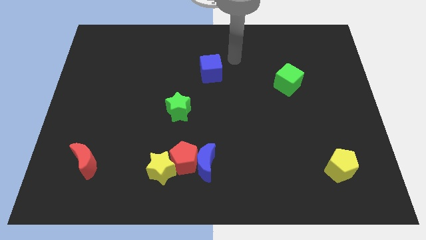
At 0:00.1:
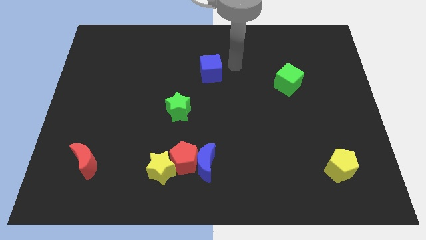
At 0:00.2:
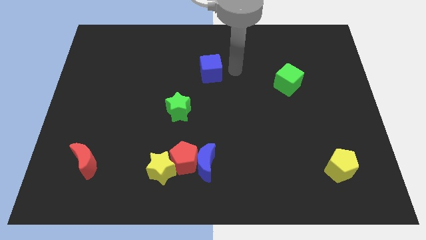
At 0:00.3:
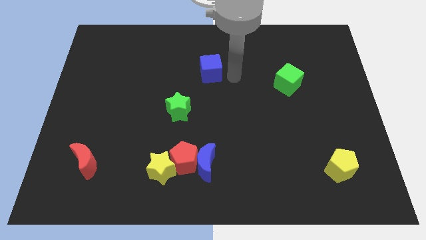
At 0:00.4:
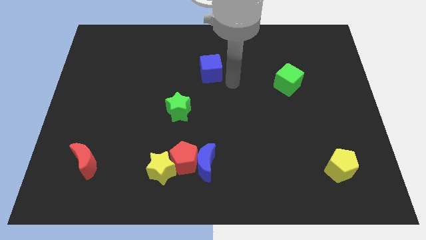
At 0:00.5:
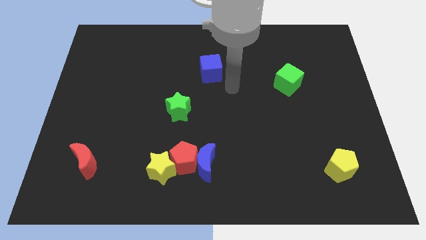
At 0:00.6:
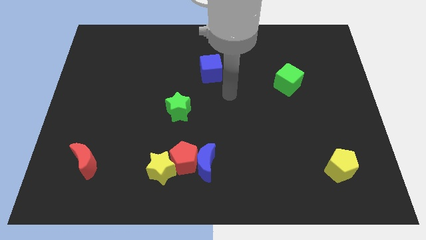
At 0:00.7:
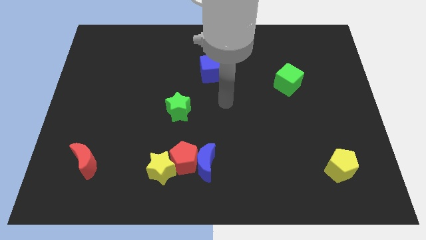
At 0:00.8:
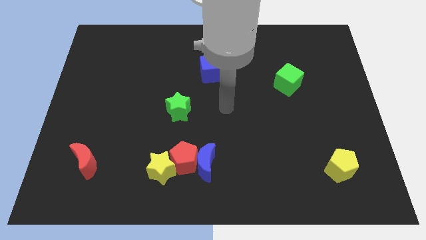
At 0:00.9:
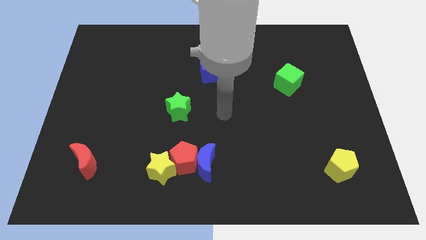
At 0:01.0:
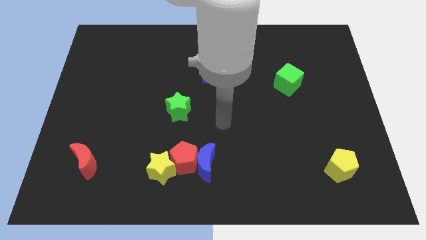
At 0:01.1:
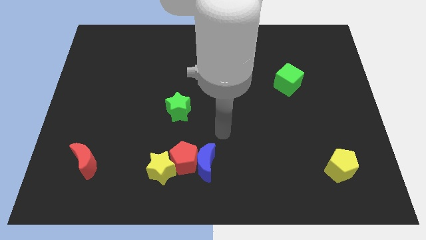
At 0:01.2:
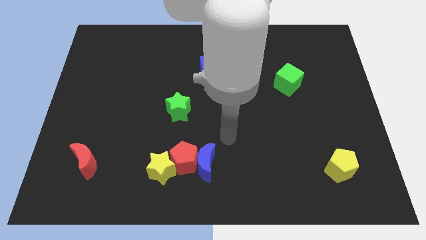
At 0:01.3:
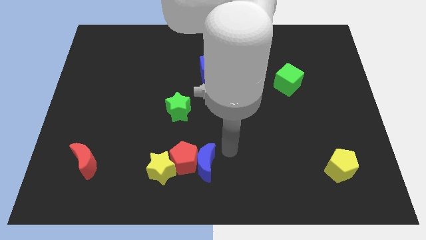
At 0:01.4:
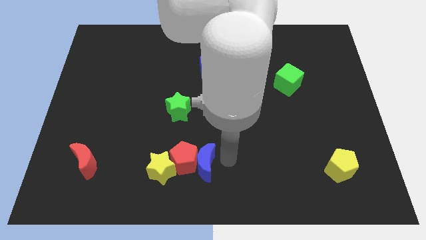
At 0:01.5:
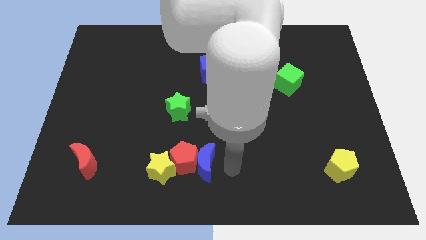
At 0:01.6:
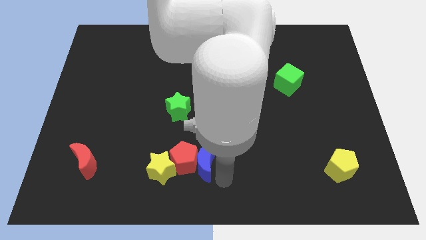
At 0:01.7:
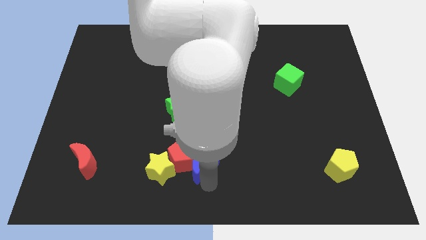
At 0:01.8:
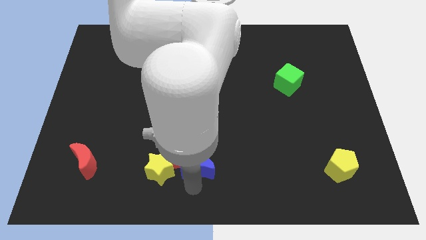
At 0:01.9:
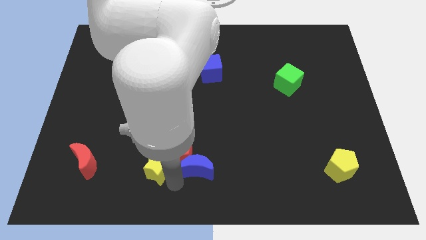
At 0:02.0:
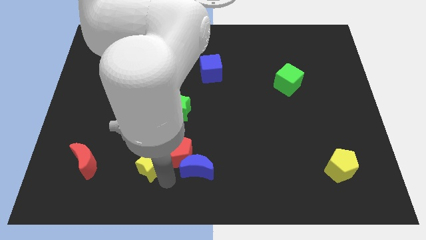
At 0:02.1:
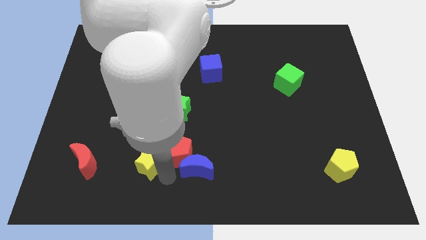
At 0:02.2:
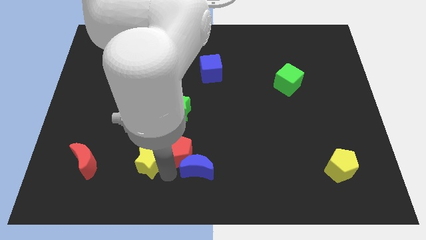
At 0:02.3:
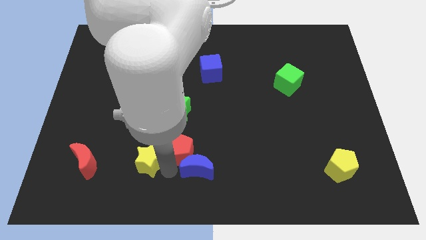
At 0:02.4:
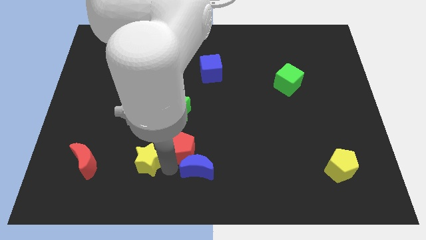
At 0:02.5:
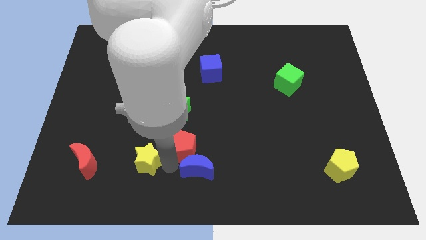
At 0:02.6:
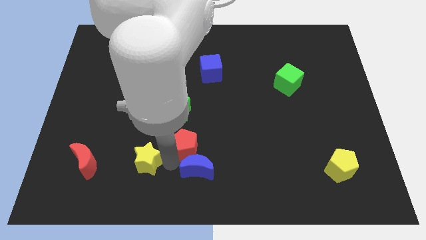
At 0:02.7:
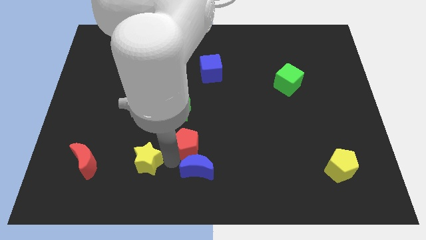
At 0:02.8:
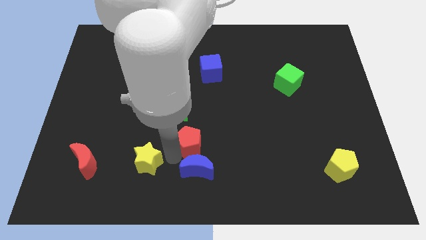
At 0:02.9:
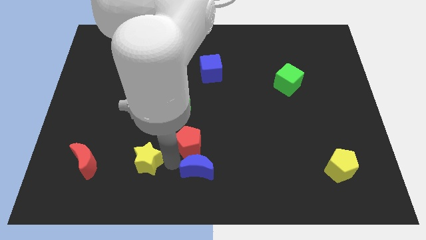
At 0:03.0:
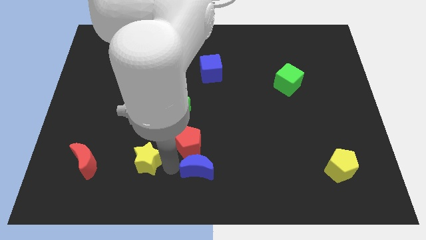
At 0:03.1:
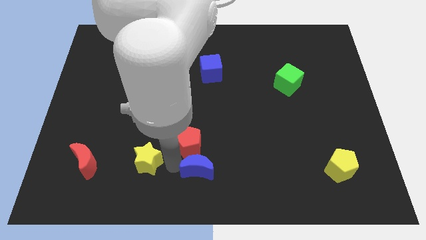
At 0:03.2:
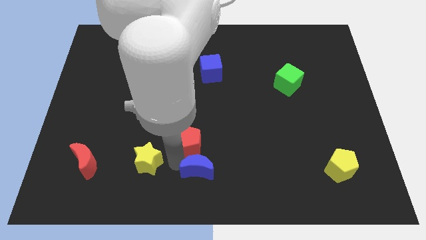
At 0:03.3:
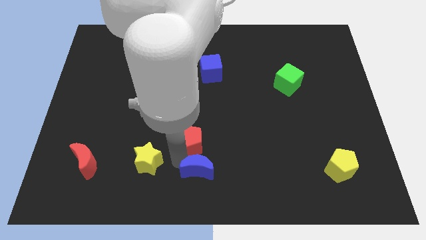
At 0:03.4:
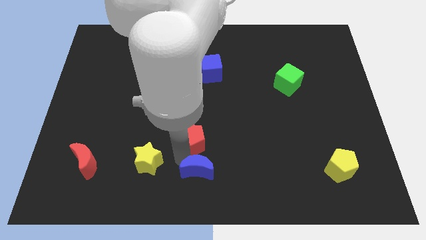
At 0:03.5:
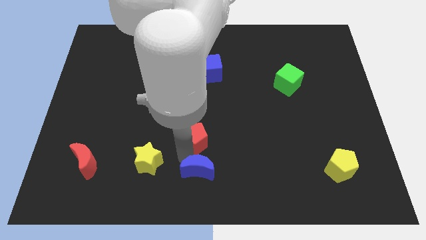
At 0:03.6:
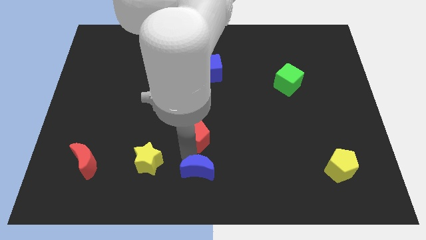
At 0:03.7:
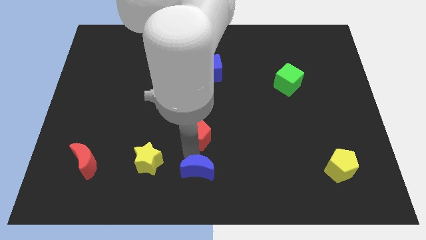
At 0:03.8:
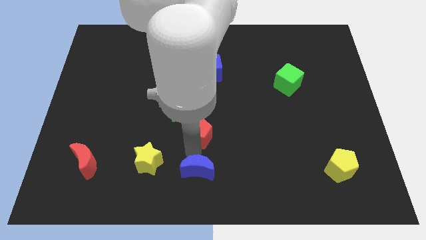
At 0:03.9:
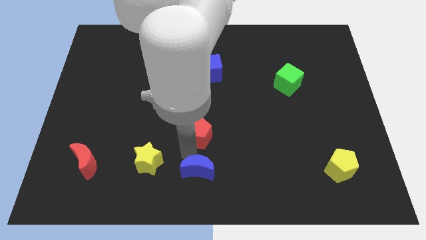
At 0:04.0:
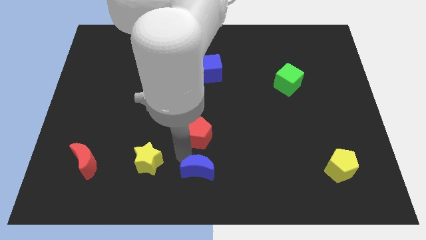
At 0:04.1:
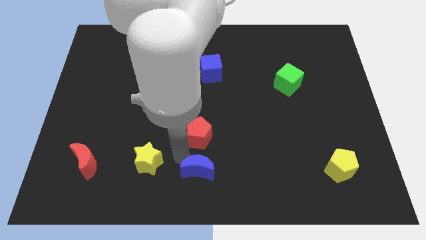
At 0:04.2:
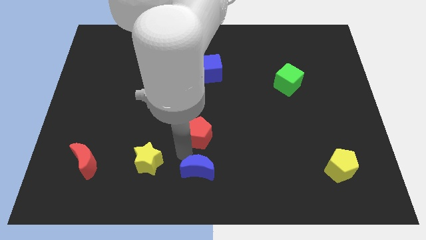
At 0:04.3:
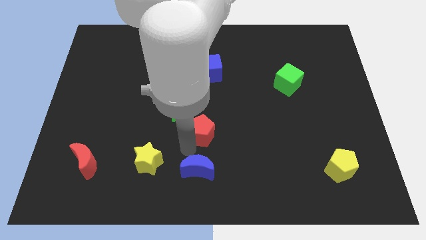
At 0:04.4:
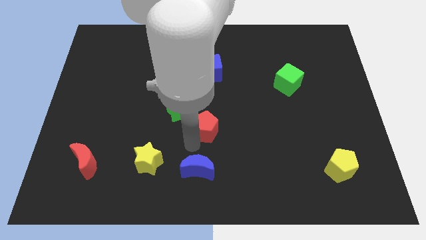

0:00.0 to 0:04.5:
move the red pentagon away from the blue moon and yellow star

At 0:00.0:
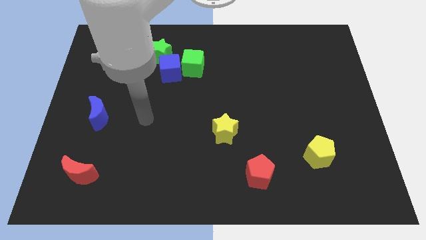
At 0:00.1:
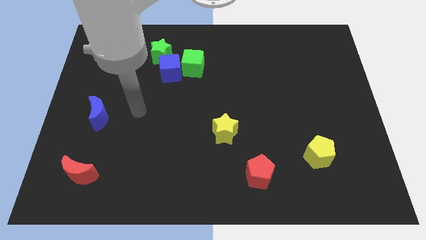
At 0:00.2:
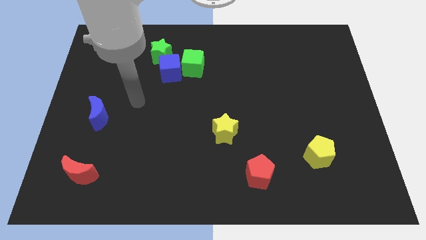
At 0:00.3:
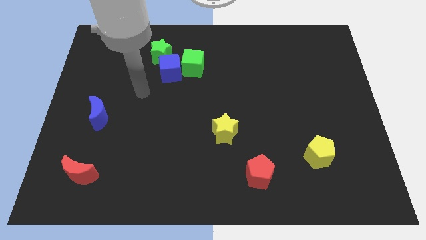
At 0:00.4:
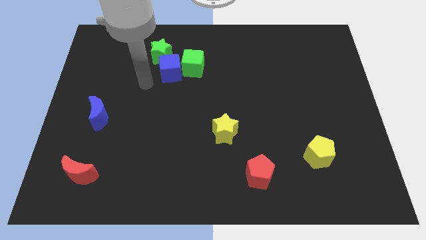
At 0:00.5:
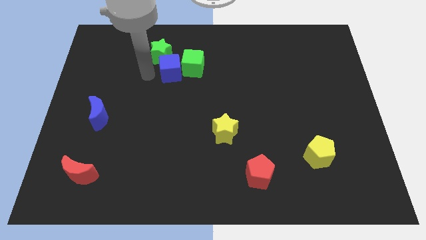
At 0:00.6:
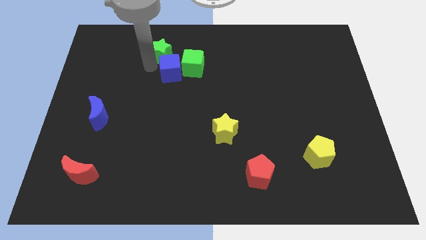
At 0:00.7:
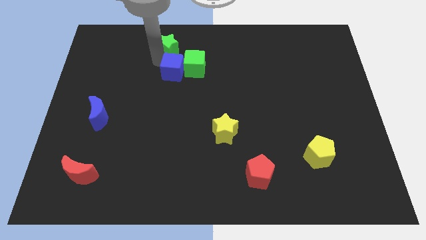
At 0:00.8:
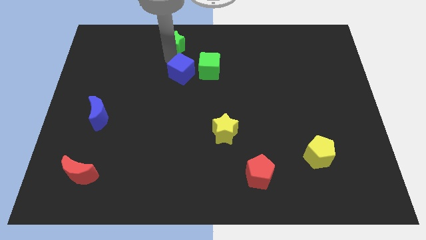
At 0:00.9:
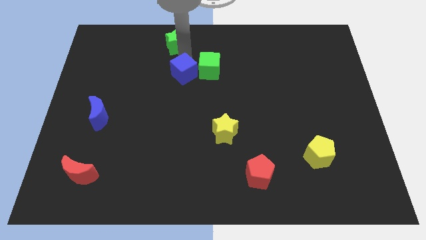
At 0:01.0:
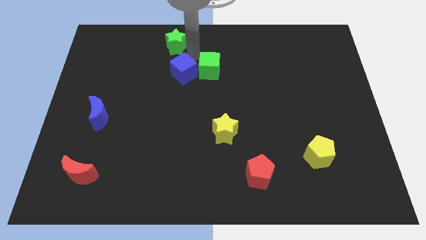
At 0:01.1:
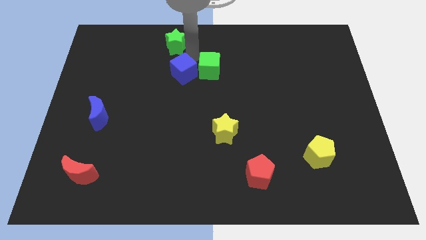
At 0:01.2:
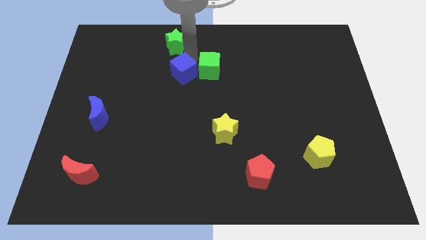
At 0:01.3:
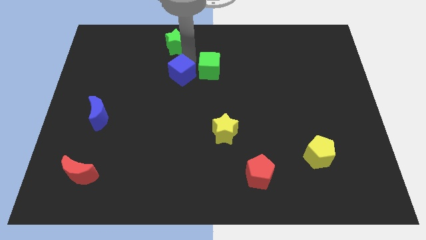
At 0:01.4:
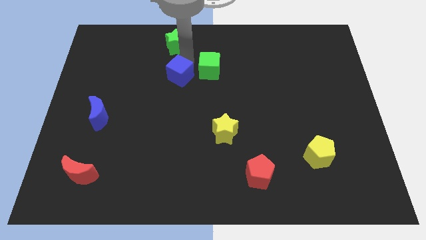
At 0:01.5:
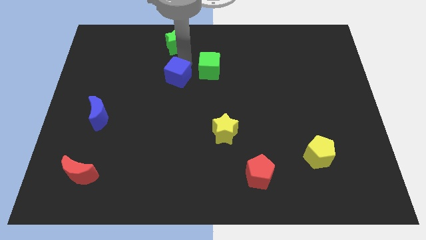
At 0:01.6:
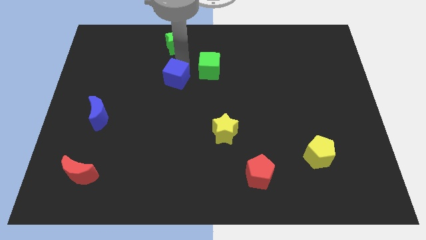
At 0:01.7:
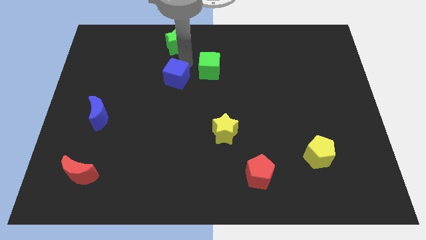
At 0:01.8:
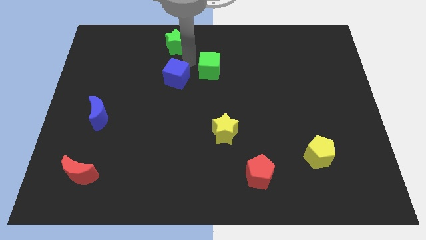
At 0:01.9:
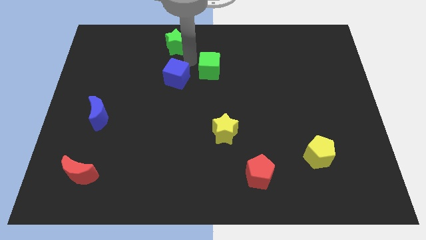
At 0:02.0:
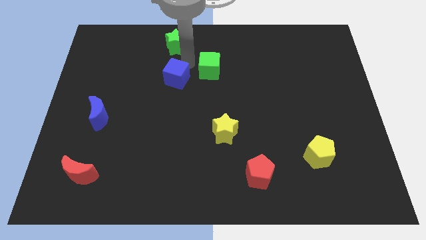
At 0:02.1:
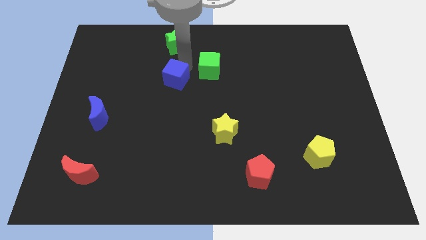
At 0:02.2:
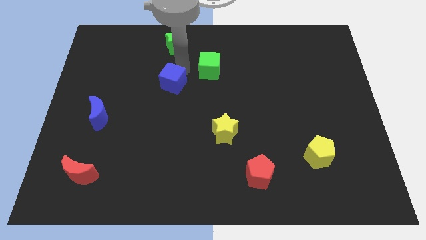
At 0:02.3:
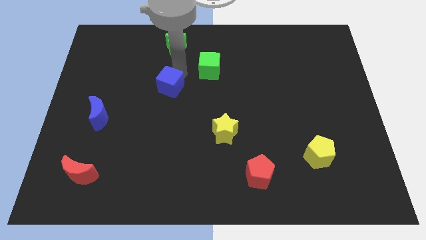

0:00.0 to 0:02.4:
move the blue cube away from the green cube and green star

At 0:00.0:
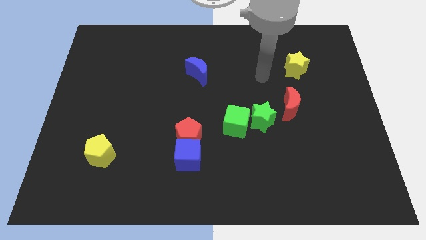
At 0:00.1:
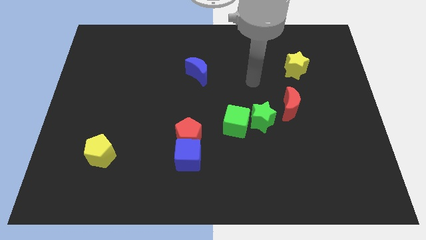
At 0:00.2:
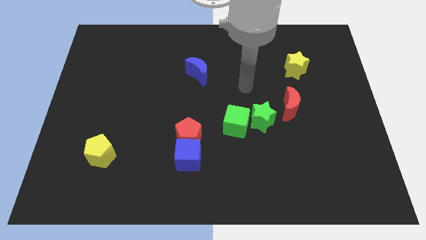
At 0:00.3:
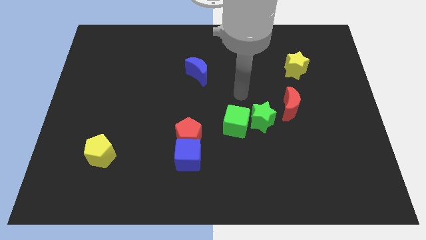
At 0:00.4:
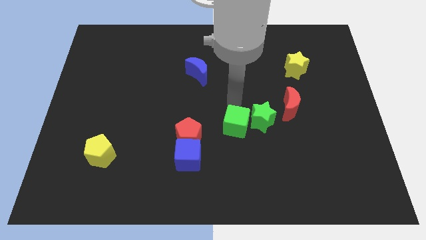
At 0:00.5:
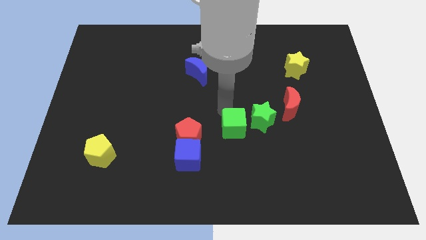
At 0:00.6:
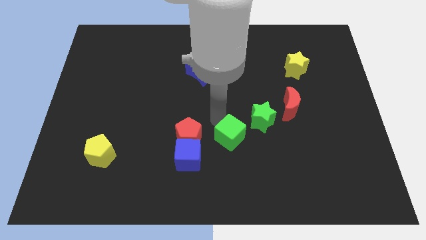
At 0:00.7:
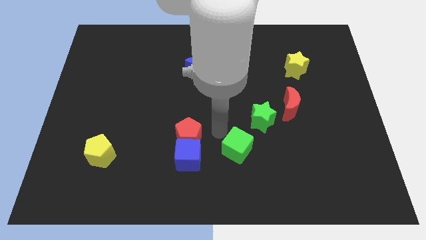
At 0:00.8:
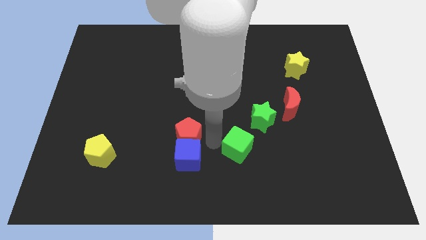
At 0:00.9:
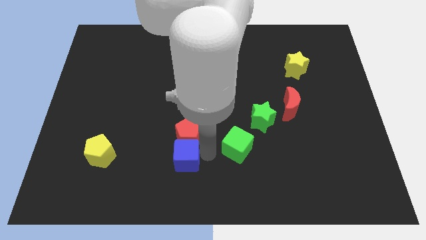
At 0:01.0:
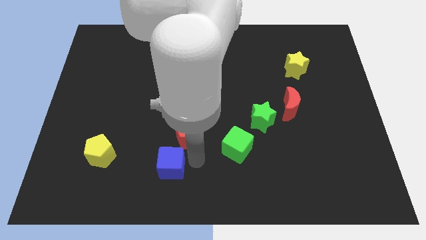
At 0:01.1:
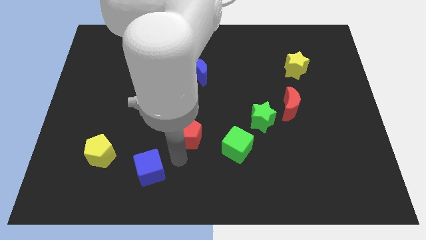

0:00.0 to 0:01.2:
separate the red pentagon from the blue cube

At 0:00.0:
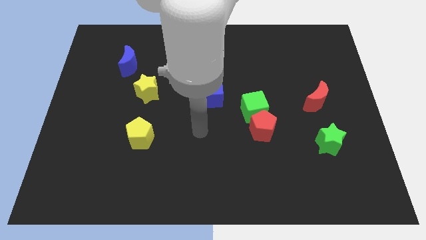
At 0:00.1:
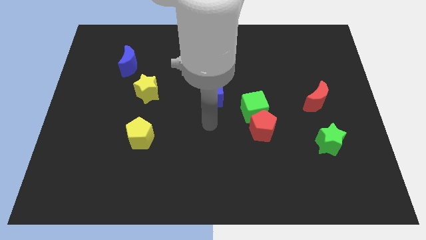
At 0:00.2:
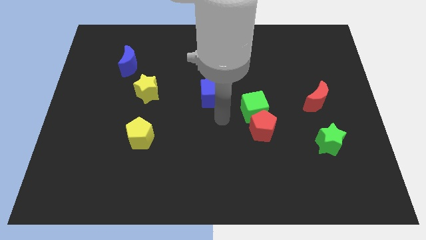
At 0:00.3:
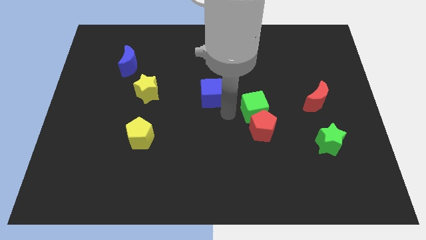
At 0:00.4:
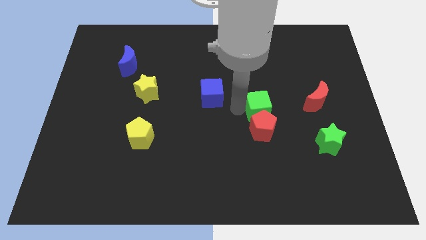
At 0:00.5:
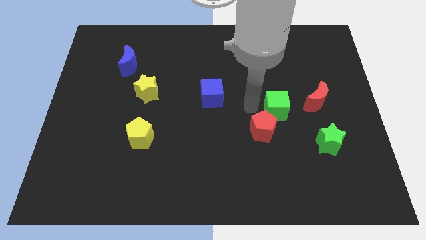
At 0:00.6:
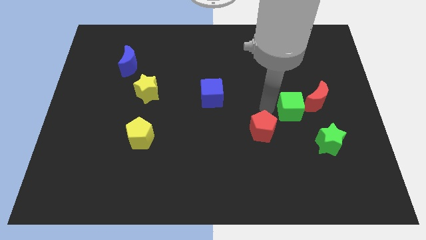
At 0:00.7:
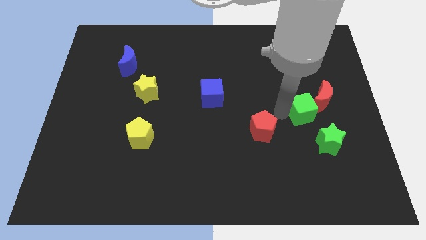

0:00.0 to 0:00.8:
move the red pentagon away from the green cube

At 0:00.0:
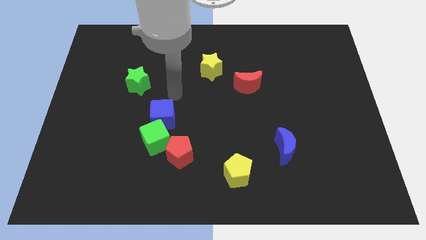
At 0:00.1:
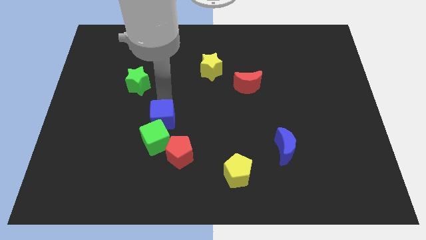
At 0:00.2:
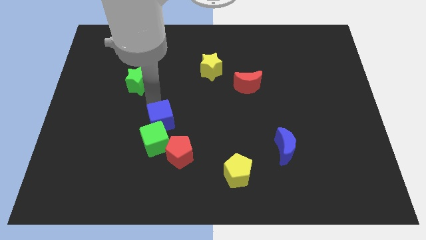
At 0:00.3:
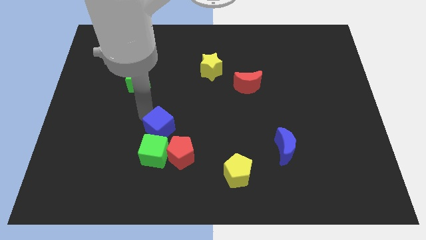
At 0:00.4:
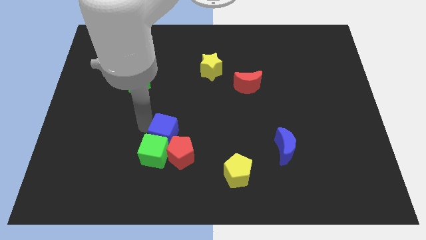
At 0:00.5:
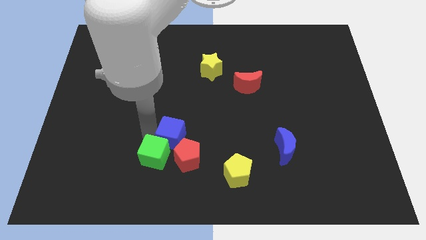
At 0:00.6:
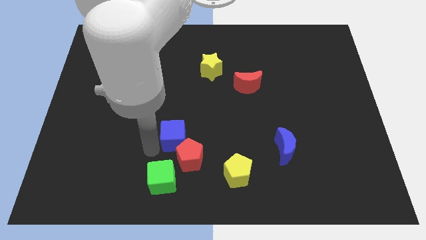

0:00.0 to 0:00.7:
separate the blue cube from the green cube
